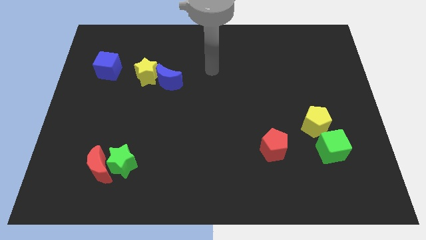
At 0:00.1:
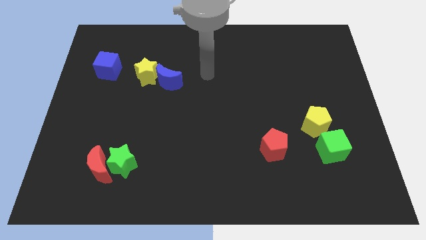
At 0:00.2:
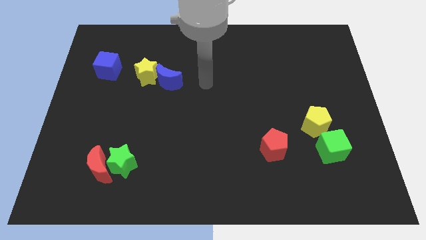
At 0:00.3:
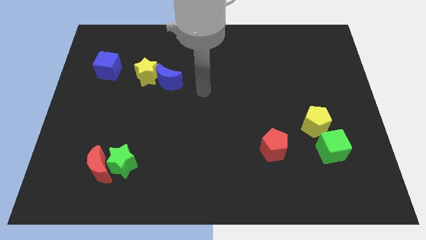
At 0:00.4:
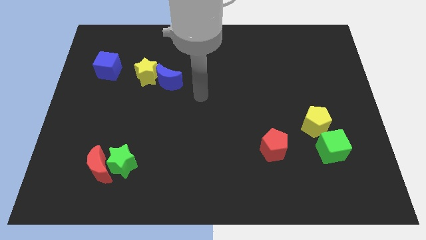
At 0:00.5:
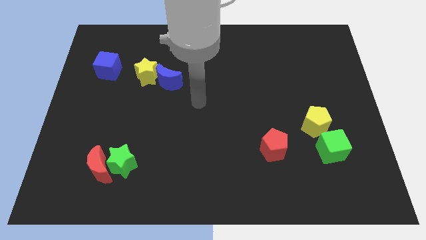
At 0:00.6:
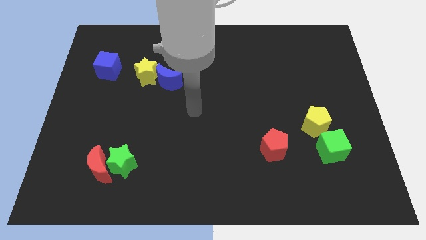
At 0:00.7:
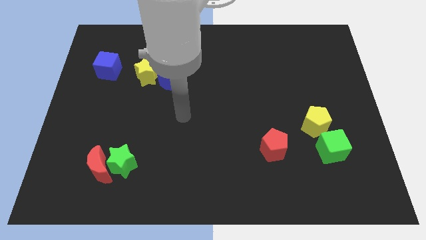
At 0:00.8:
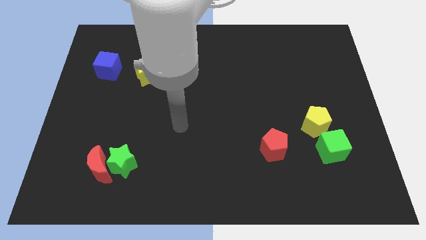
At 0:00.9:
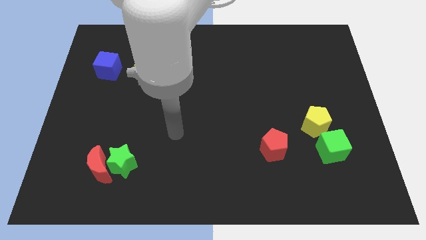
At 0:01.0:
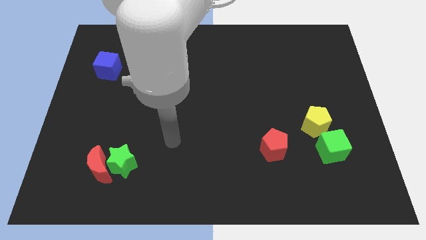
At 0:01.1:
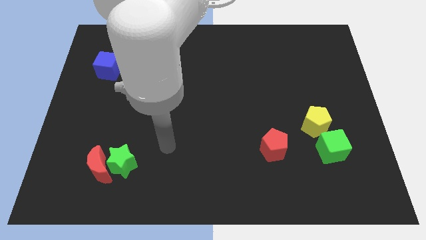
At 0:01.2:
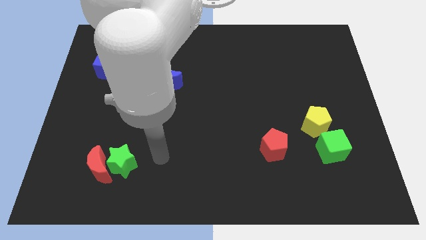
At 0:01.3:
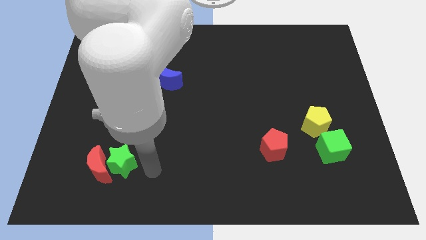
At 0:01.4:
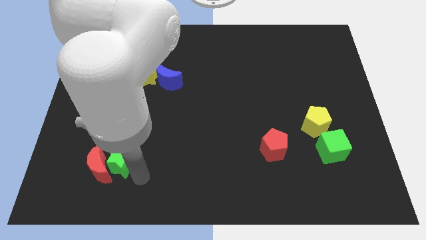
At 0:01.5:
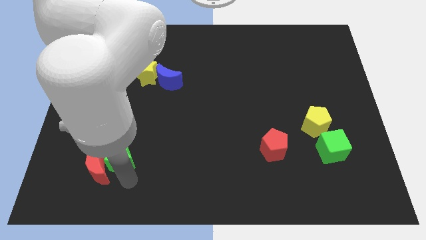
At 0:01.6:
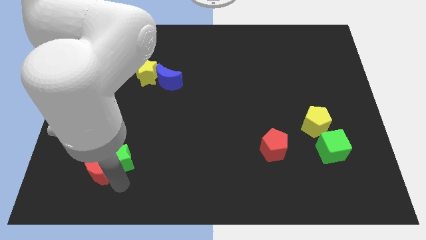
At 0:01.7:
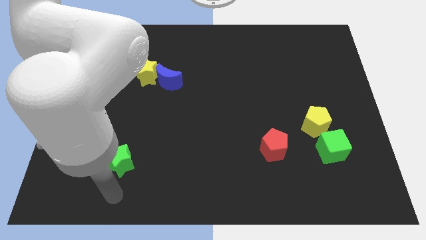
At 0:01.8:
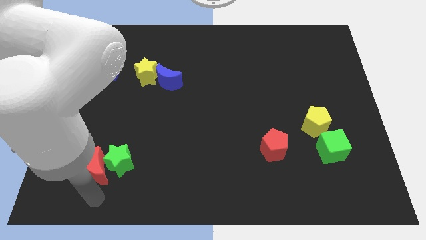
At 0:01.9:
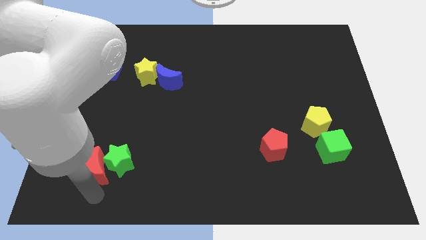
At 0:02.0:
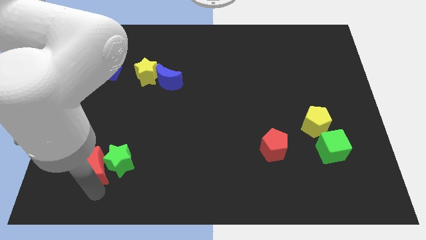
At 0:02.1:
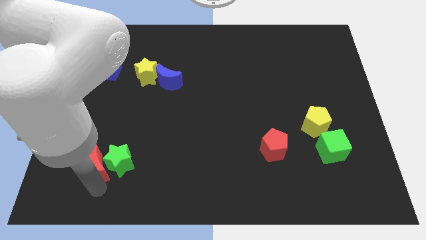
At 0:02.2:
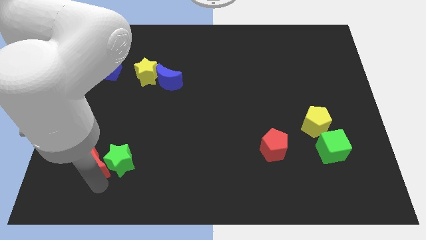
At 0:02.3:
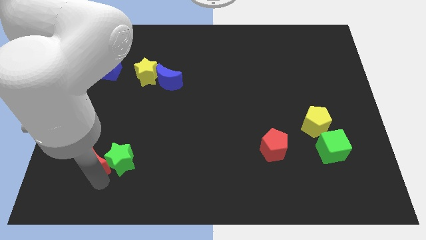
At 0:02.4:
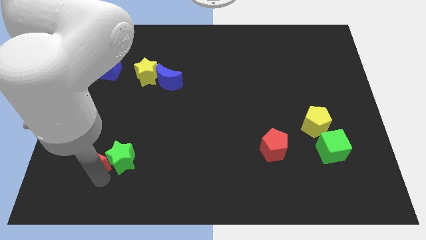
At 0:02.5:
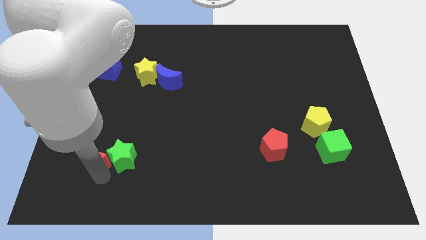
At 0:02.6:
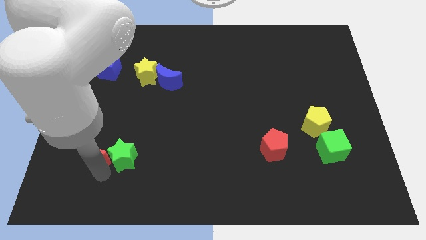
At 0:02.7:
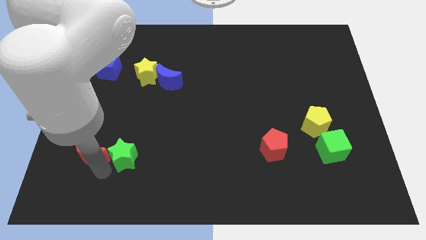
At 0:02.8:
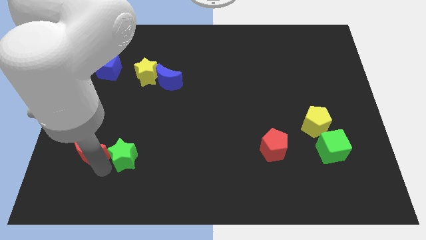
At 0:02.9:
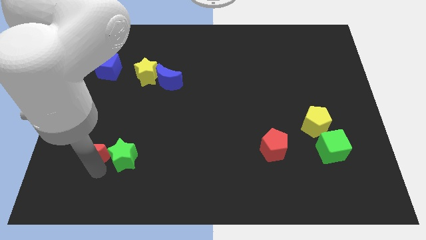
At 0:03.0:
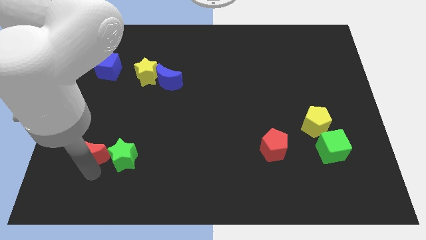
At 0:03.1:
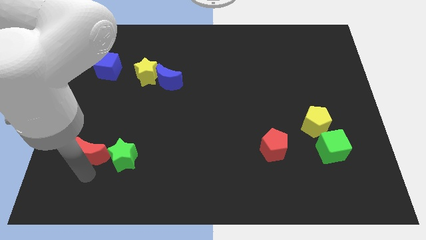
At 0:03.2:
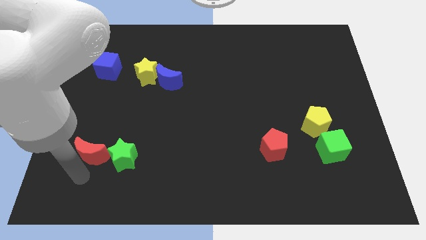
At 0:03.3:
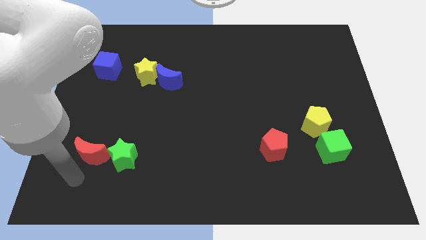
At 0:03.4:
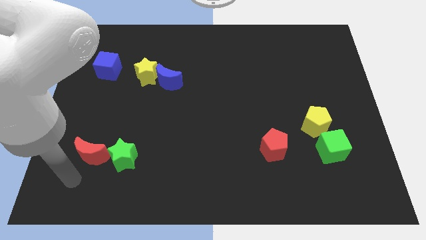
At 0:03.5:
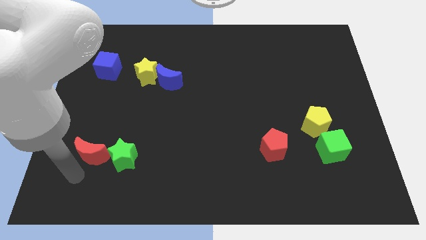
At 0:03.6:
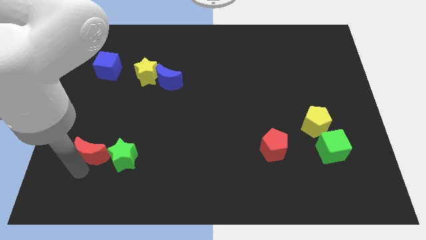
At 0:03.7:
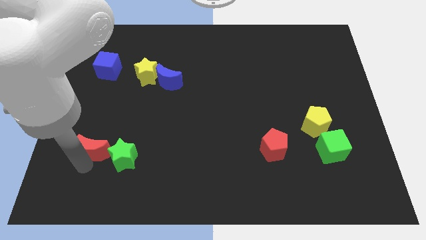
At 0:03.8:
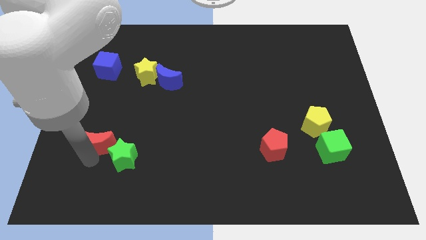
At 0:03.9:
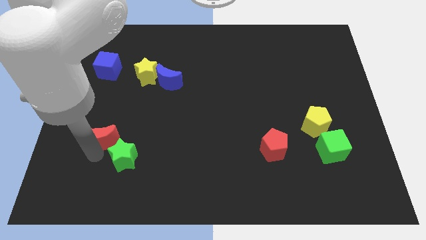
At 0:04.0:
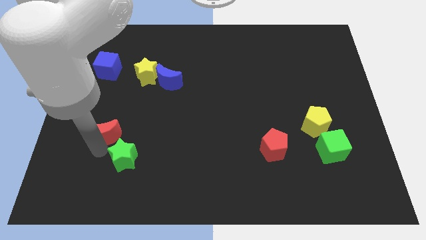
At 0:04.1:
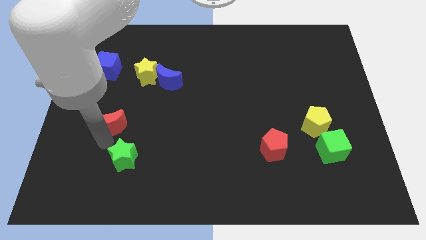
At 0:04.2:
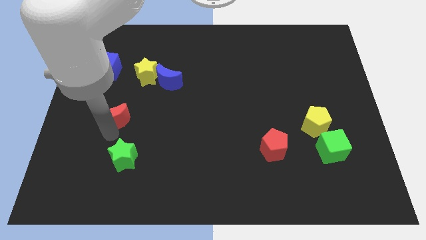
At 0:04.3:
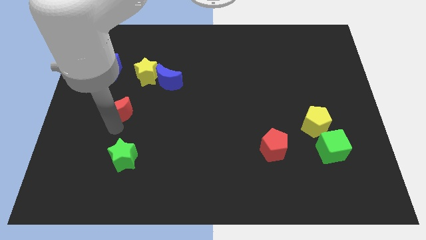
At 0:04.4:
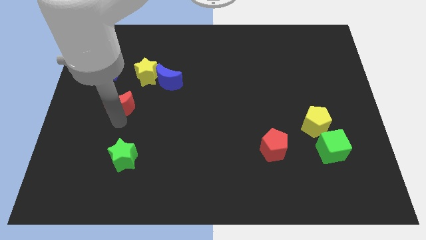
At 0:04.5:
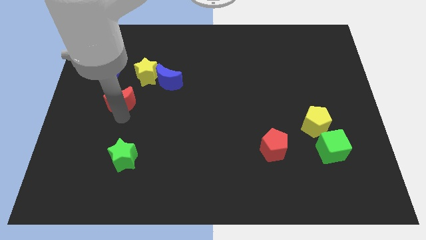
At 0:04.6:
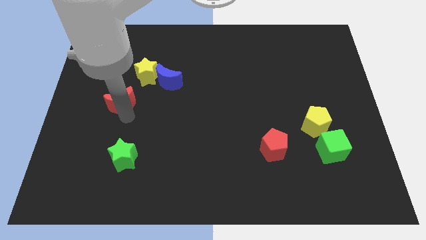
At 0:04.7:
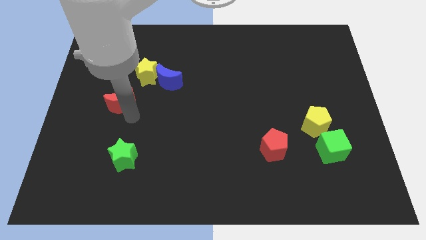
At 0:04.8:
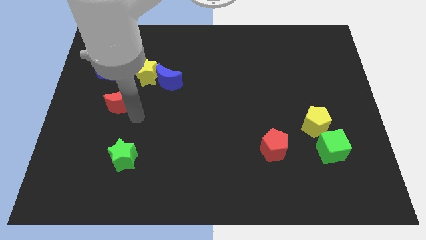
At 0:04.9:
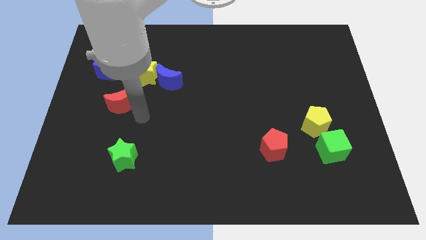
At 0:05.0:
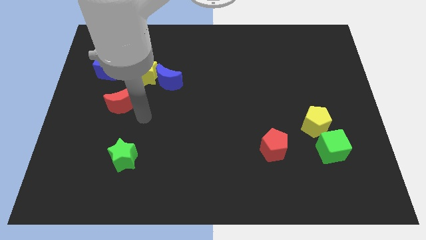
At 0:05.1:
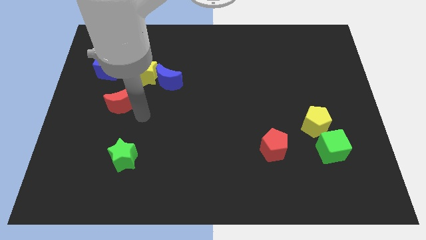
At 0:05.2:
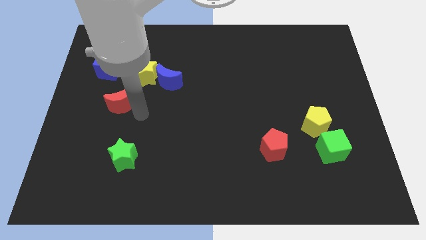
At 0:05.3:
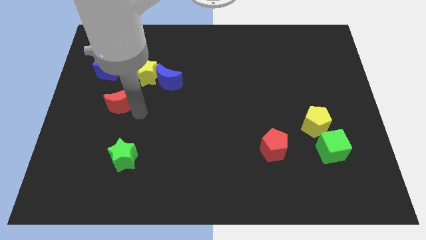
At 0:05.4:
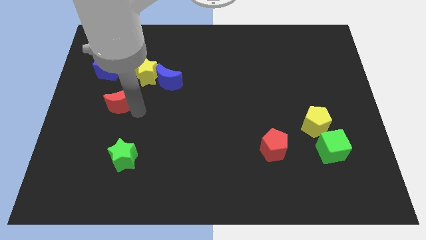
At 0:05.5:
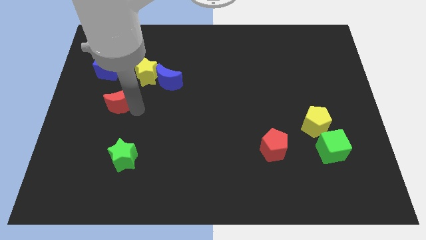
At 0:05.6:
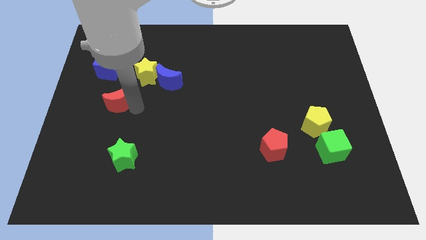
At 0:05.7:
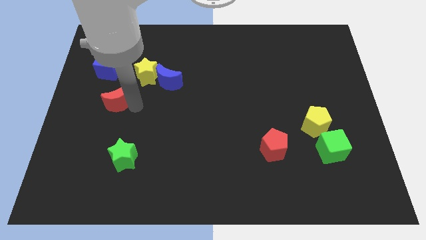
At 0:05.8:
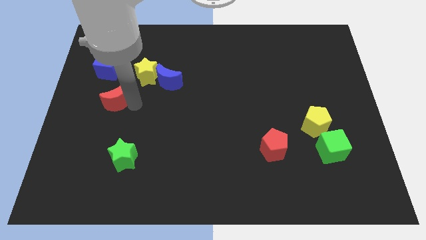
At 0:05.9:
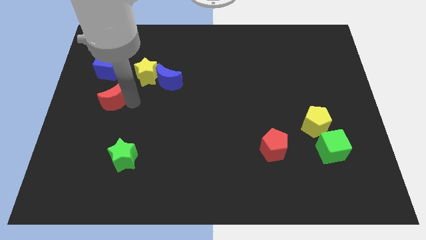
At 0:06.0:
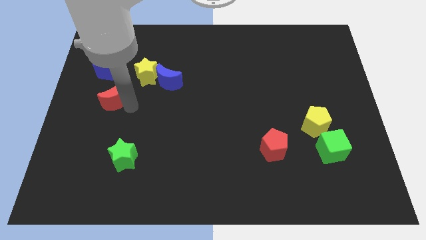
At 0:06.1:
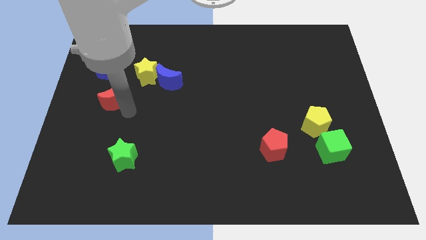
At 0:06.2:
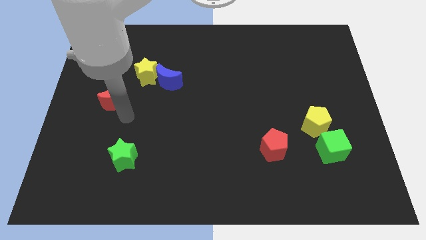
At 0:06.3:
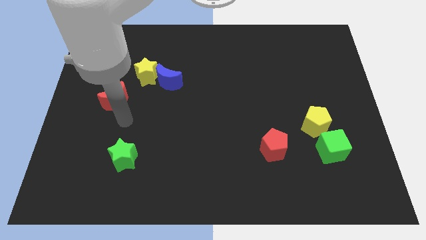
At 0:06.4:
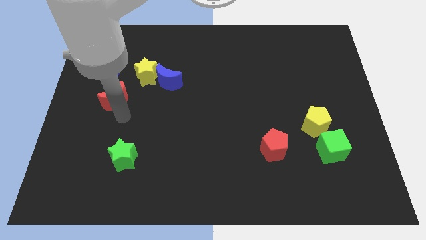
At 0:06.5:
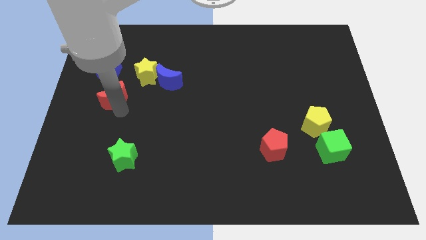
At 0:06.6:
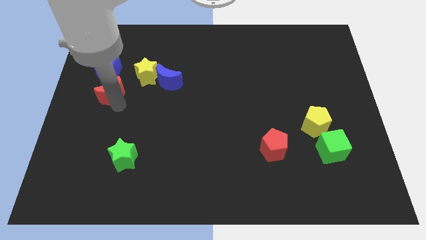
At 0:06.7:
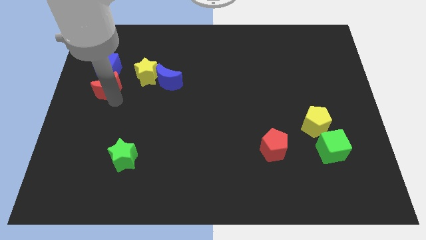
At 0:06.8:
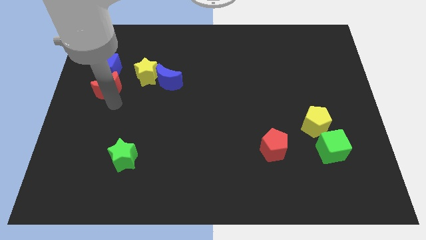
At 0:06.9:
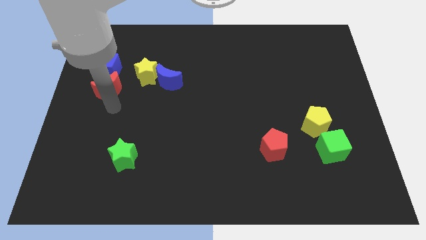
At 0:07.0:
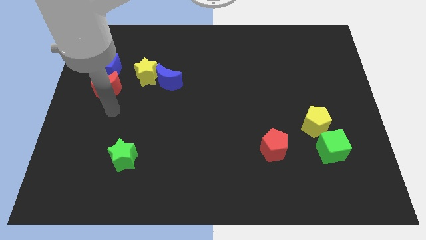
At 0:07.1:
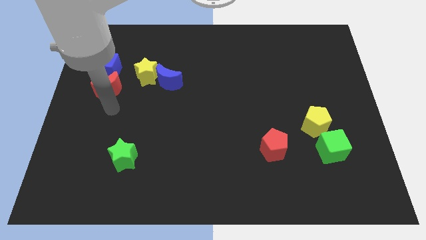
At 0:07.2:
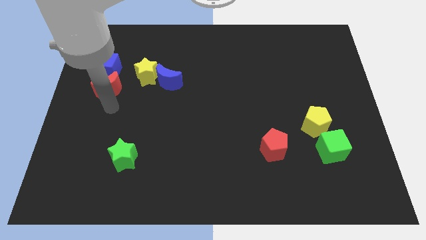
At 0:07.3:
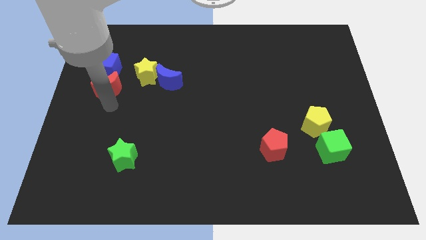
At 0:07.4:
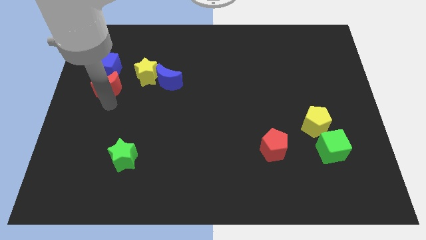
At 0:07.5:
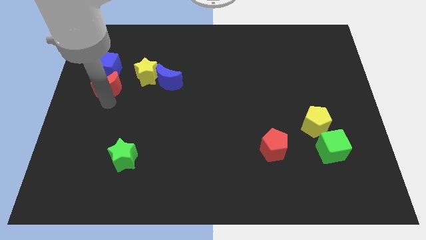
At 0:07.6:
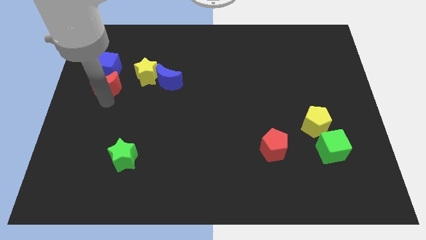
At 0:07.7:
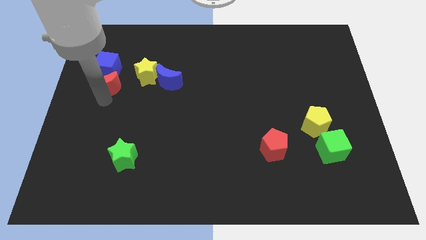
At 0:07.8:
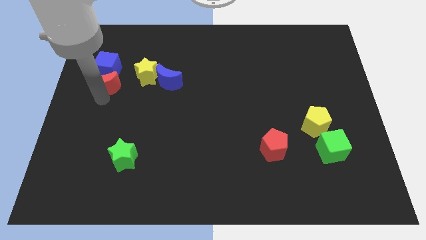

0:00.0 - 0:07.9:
put the red moon next to the blue cube
